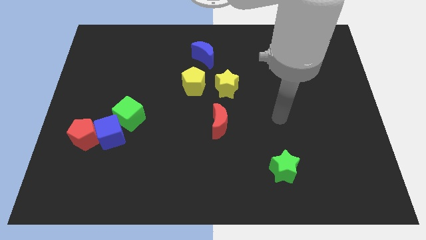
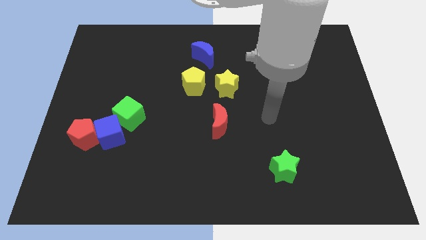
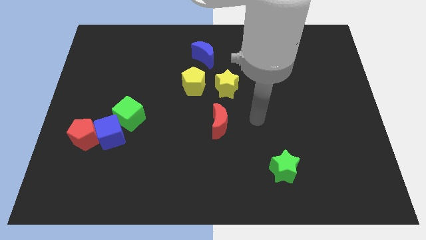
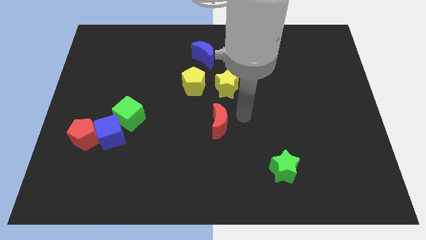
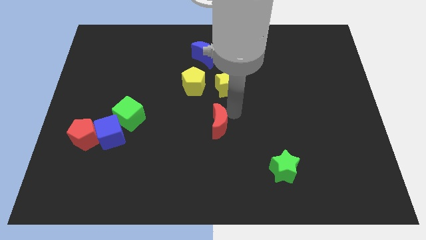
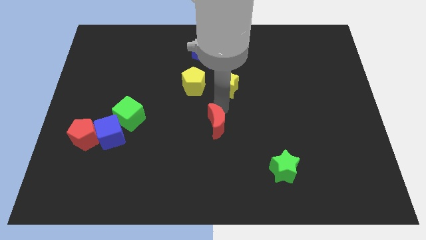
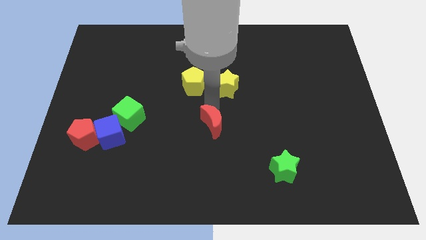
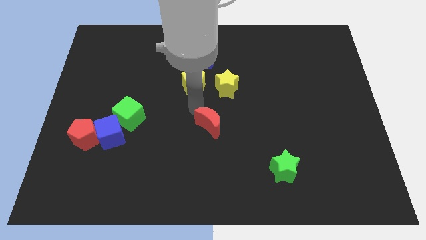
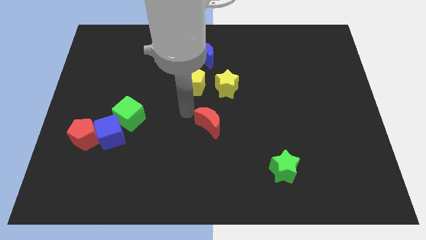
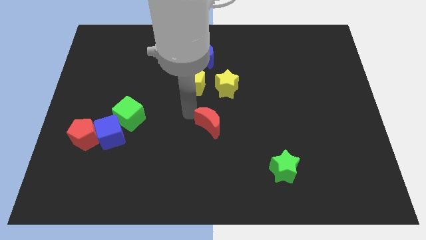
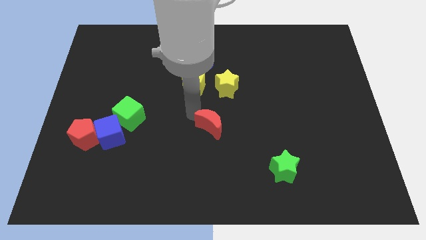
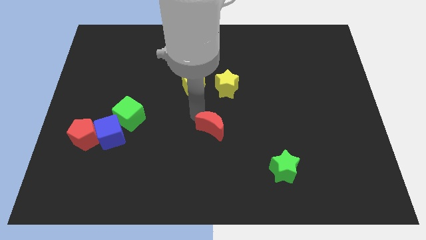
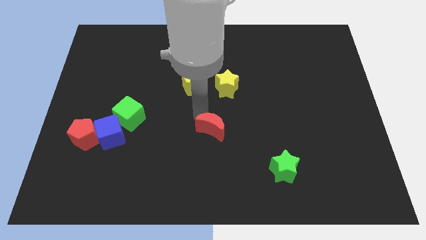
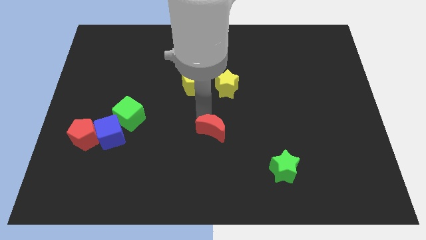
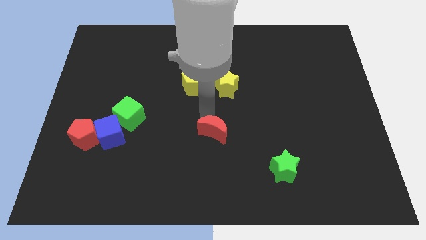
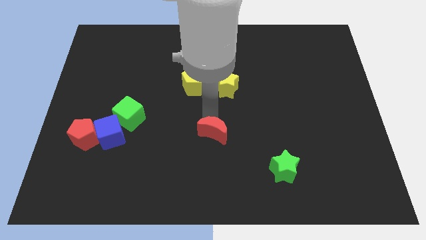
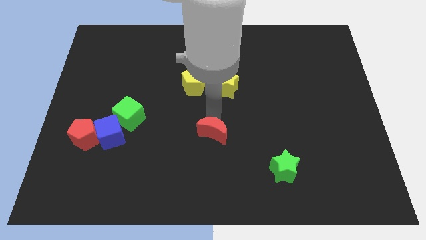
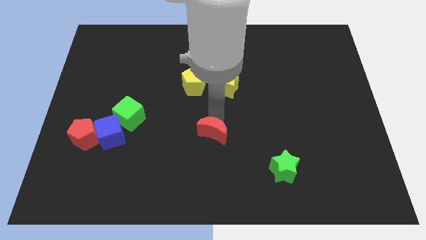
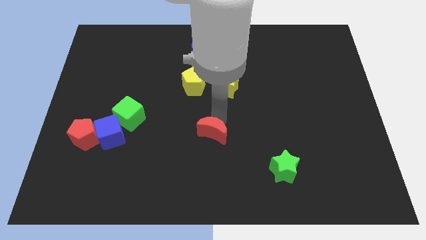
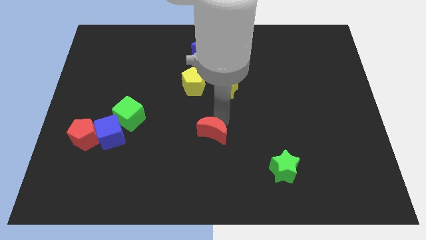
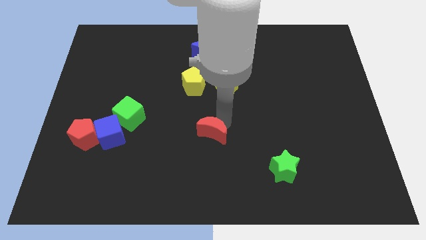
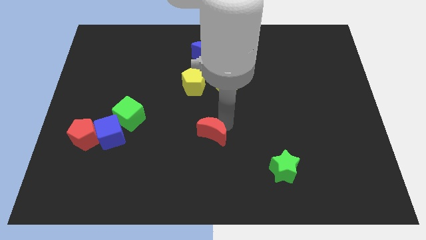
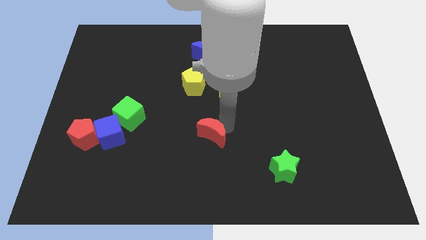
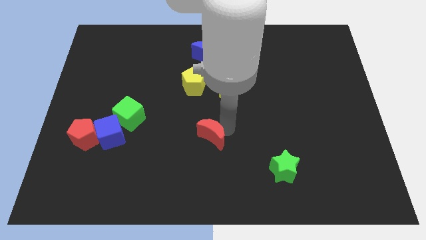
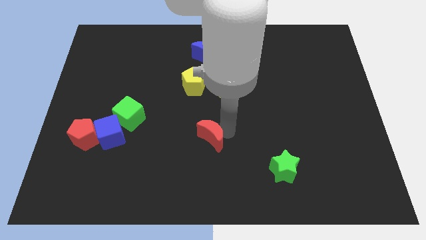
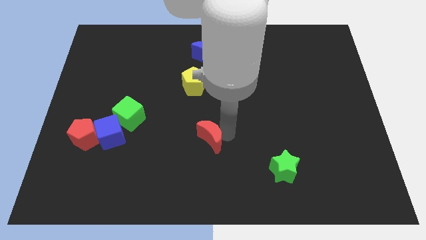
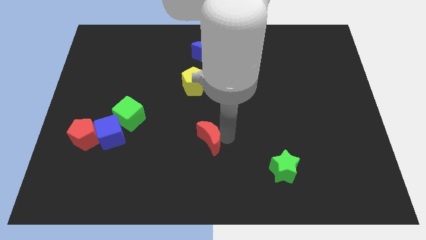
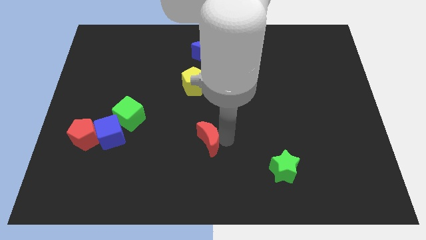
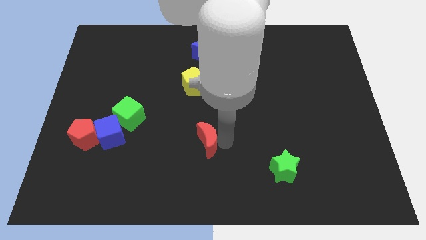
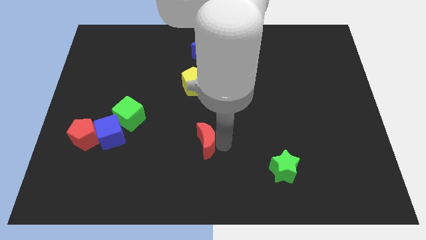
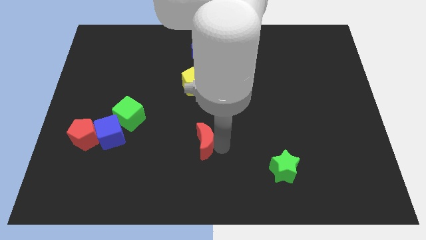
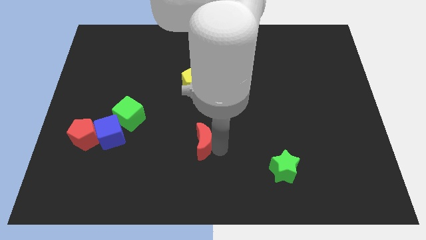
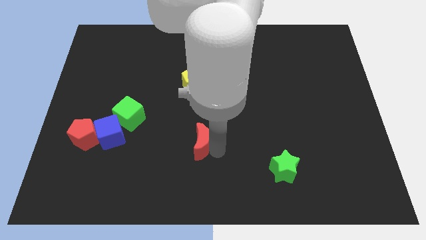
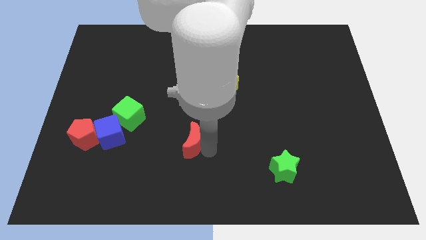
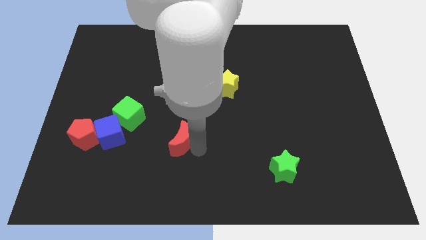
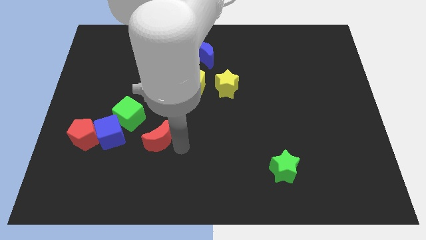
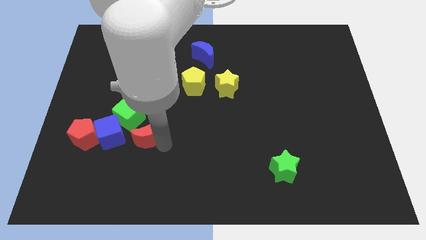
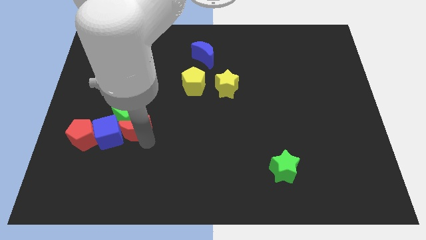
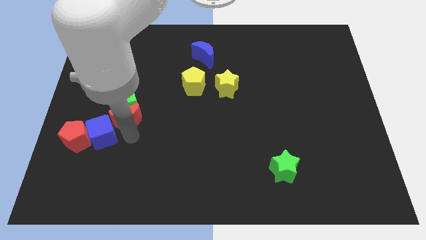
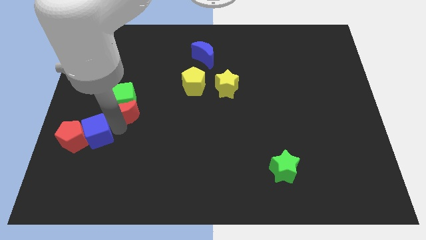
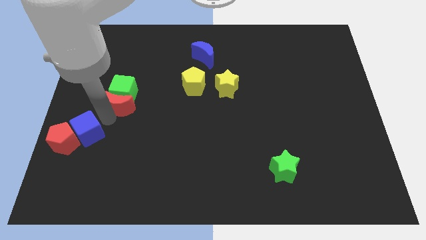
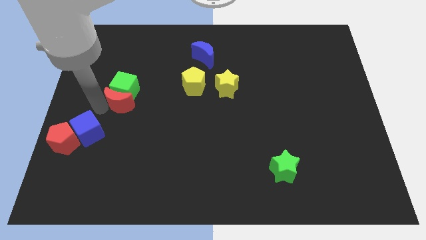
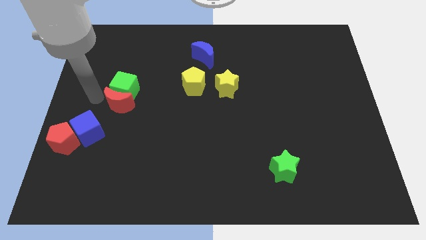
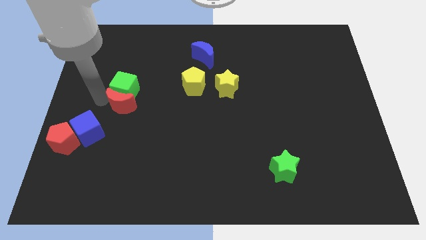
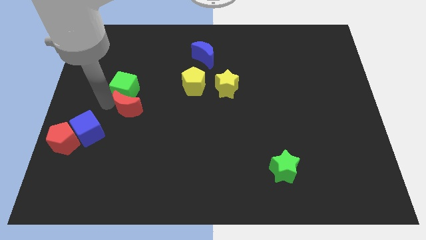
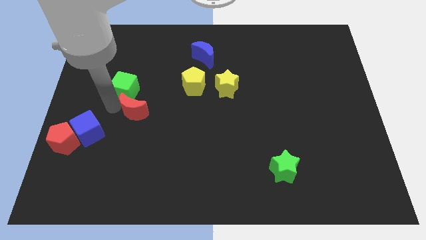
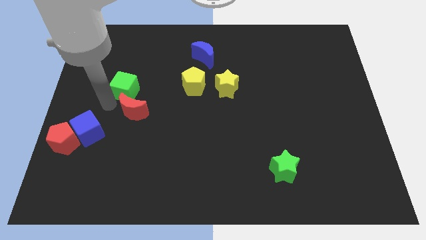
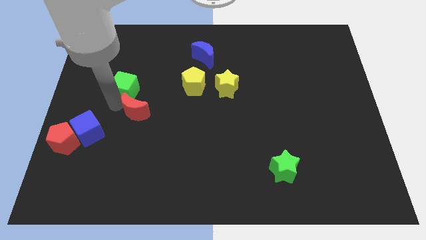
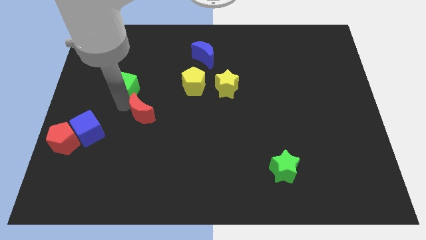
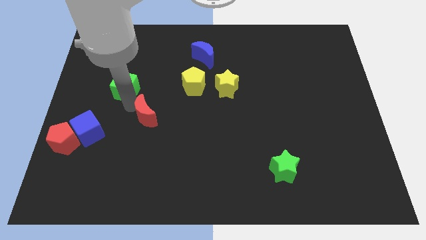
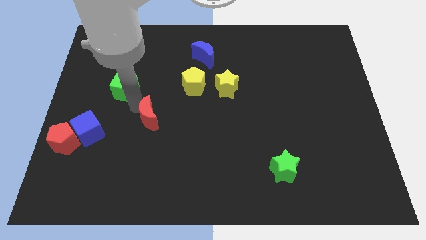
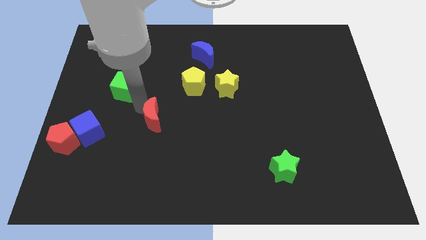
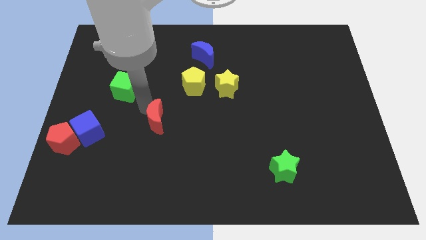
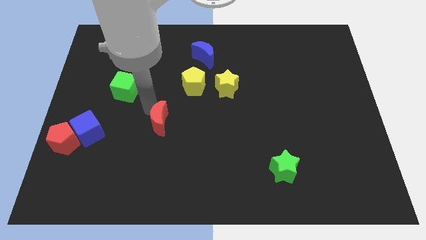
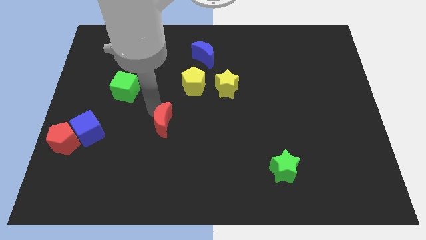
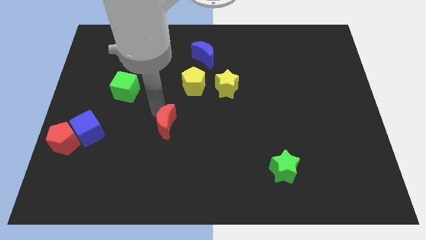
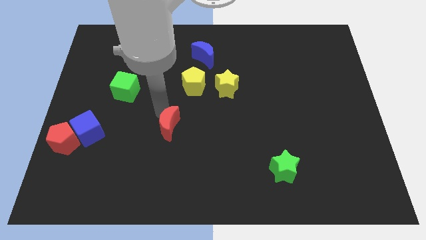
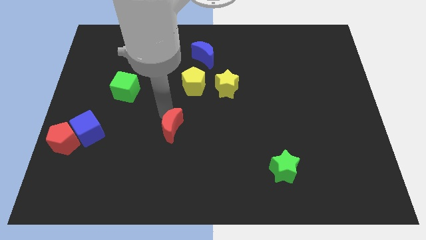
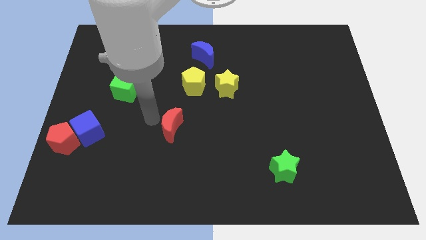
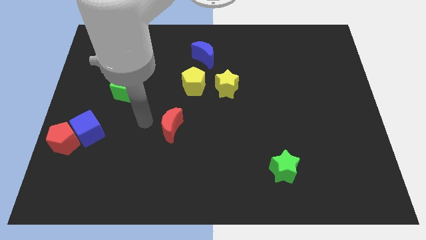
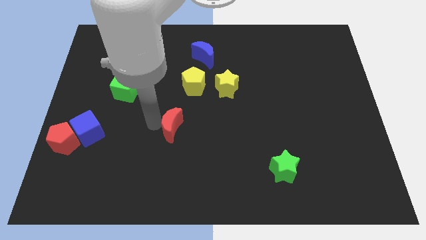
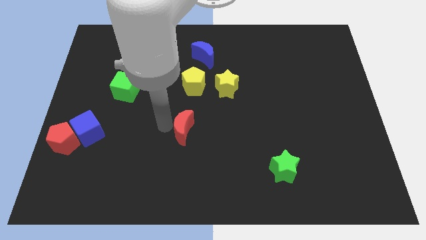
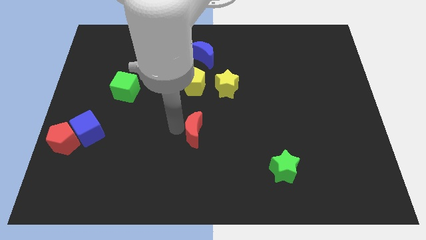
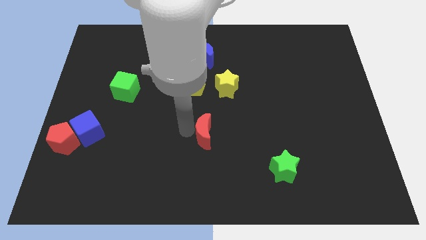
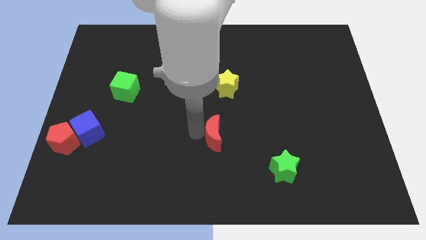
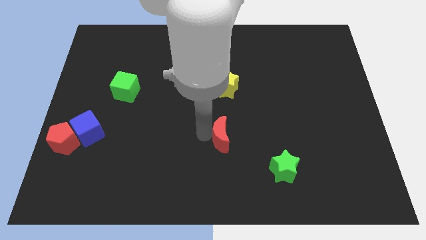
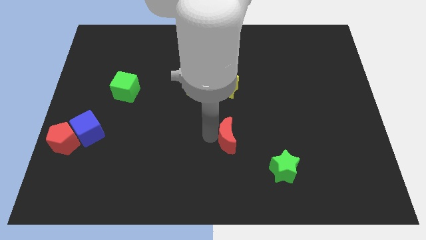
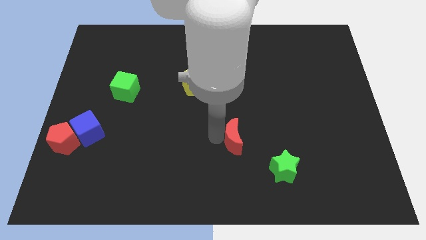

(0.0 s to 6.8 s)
slide the red moon to the top left side of the green star
